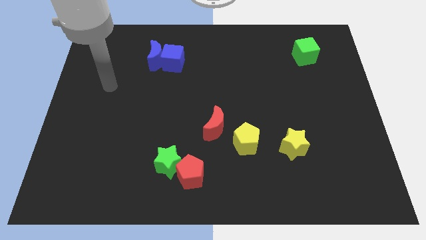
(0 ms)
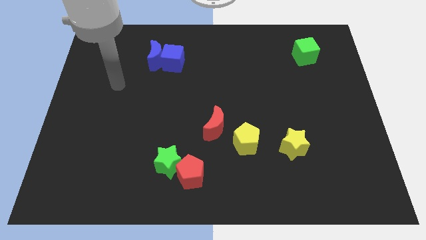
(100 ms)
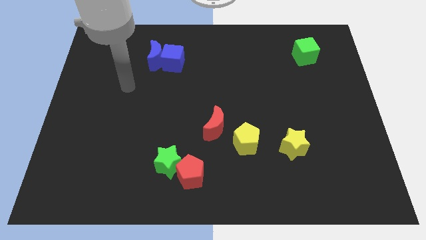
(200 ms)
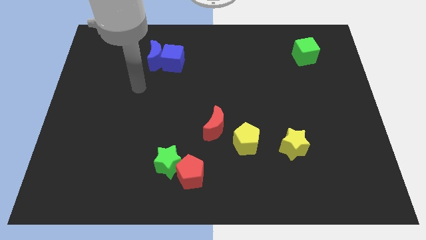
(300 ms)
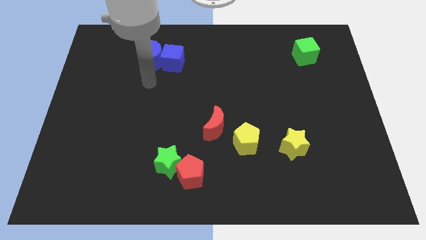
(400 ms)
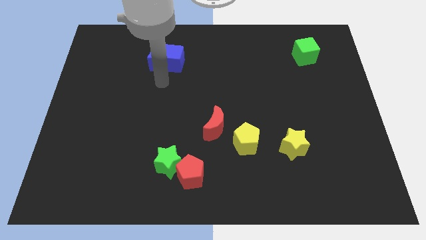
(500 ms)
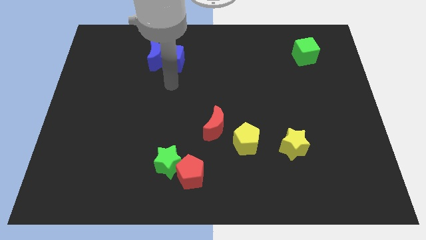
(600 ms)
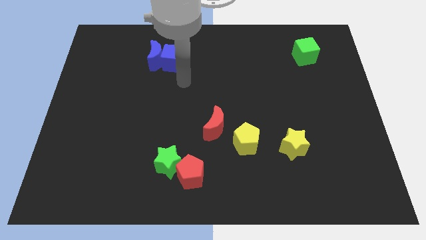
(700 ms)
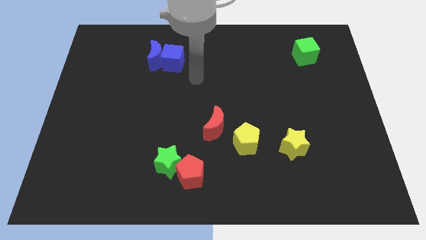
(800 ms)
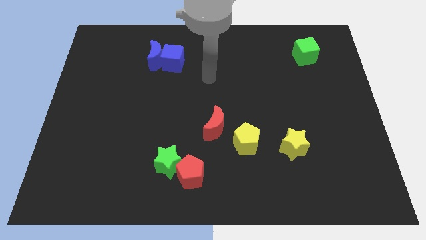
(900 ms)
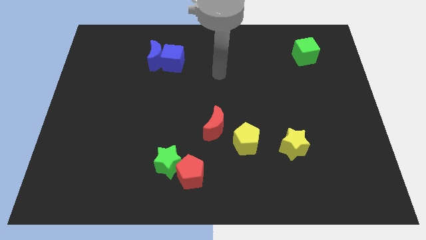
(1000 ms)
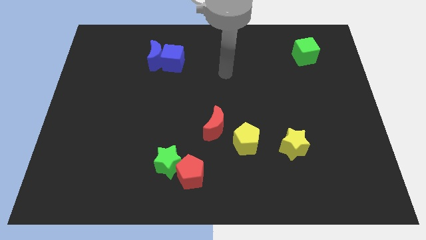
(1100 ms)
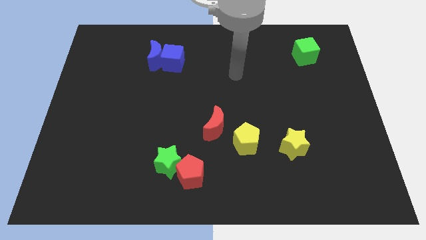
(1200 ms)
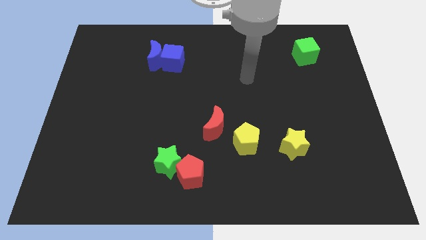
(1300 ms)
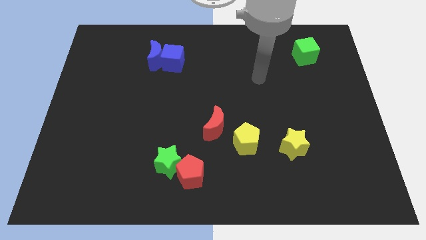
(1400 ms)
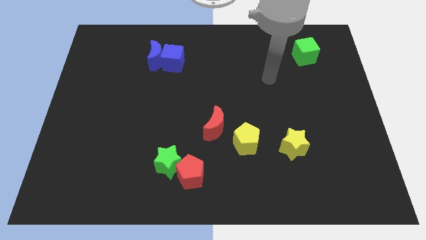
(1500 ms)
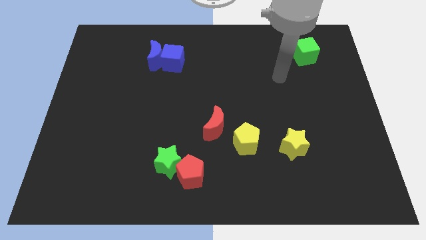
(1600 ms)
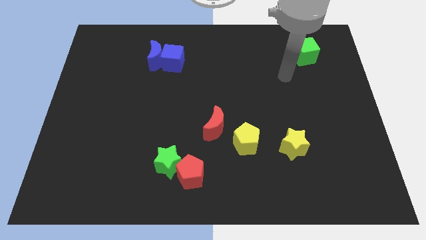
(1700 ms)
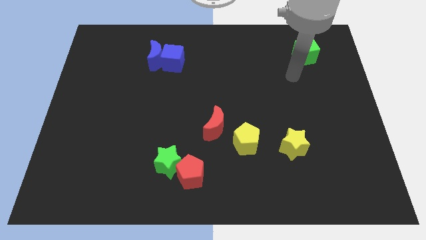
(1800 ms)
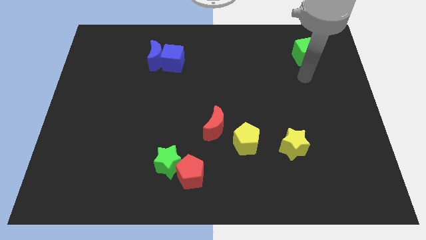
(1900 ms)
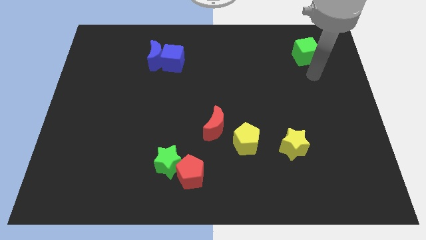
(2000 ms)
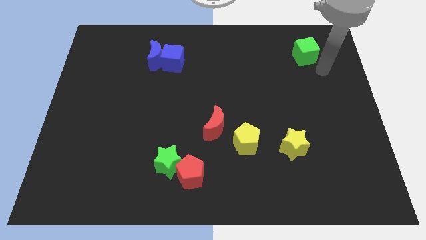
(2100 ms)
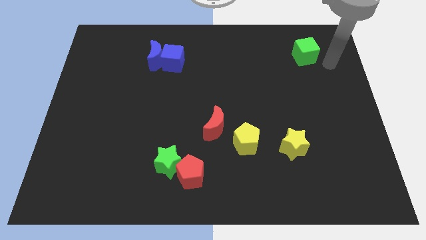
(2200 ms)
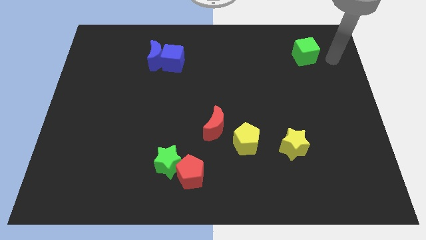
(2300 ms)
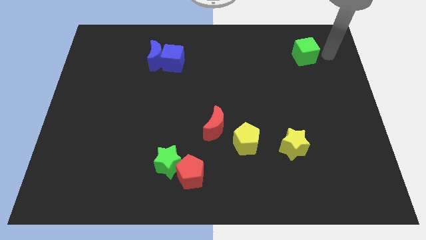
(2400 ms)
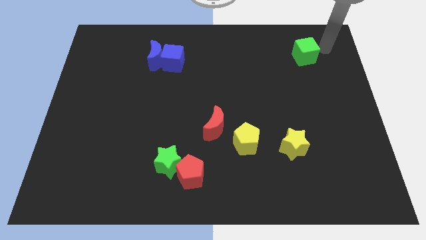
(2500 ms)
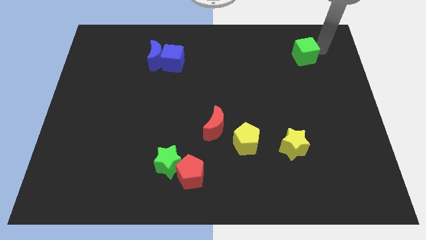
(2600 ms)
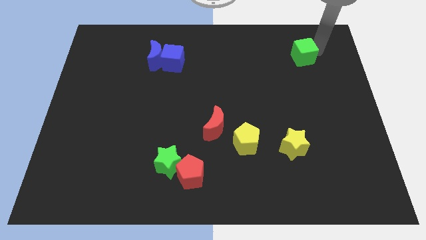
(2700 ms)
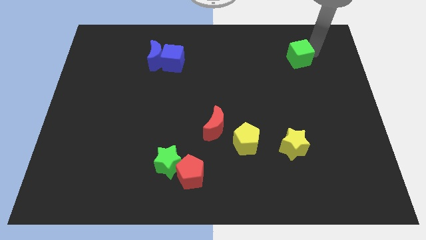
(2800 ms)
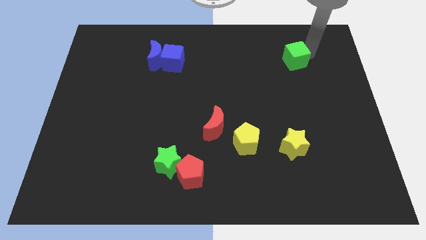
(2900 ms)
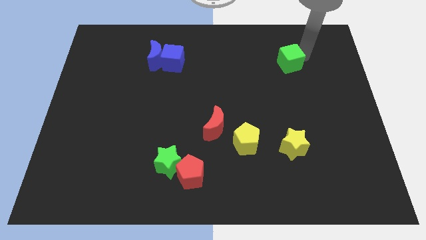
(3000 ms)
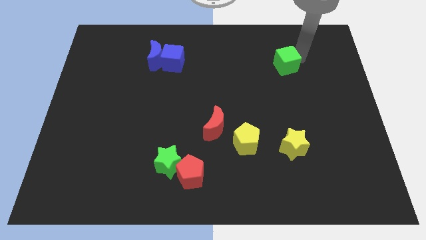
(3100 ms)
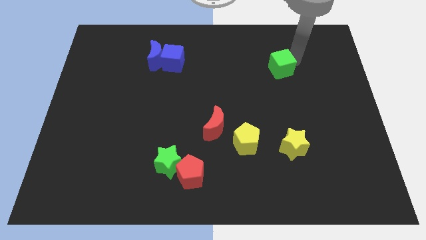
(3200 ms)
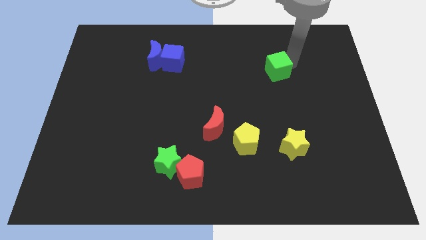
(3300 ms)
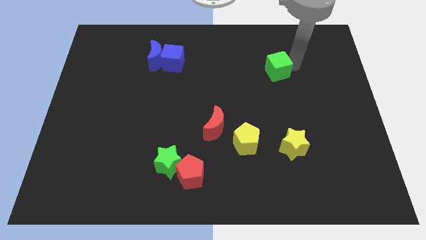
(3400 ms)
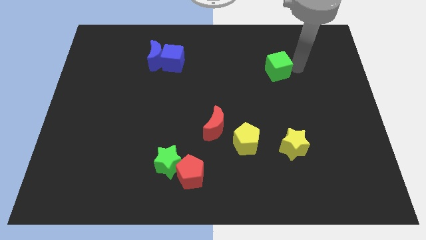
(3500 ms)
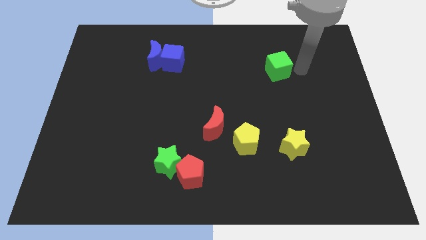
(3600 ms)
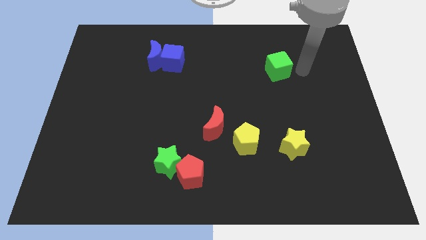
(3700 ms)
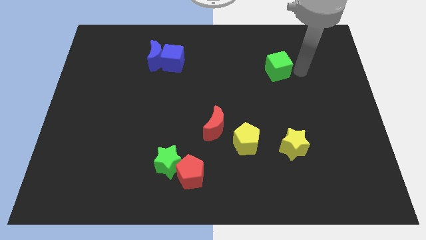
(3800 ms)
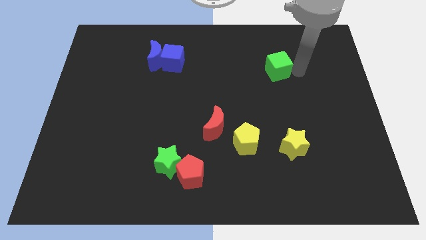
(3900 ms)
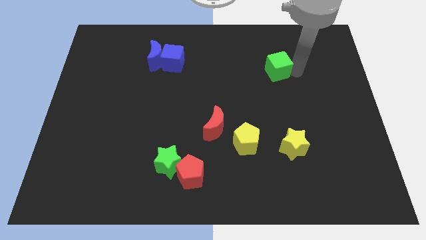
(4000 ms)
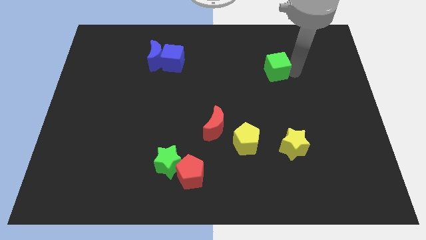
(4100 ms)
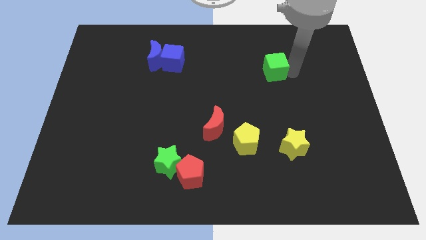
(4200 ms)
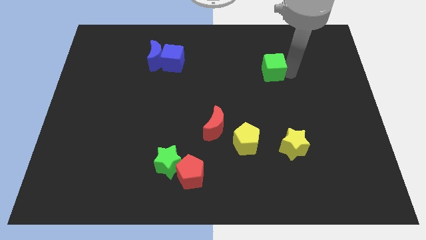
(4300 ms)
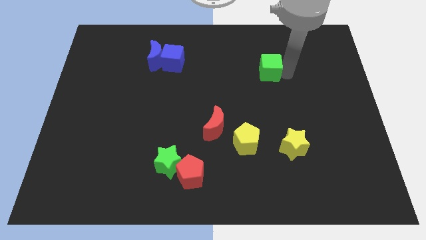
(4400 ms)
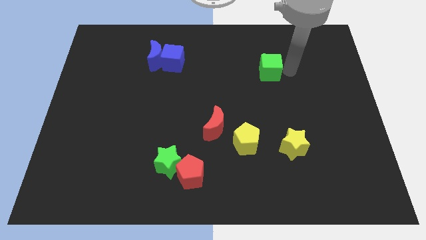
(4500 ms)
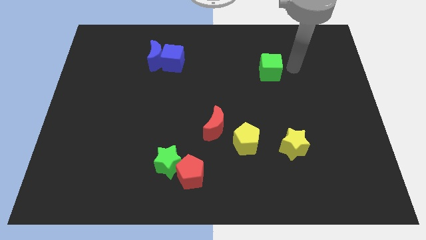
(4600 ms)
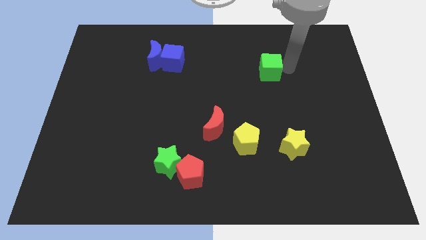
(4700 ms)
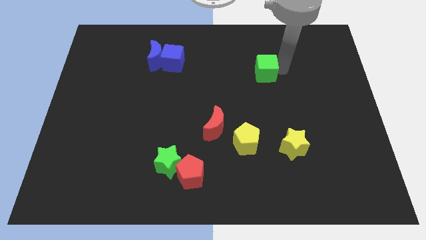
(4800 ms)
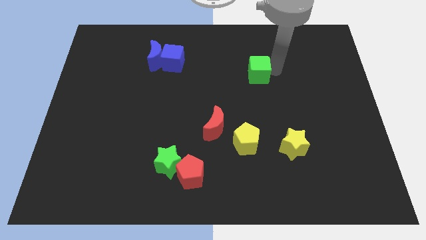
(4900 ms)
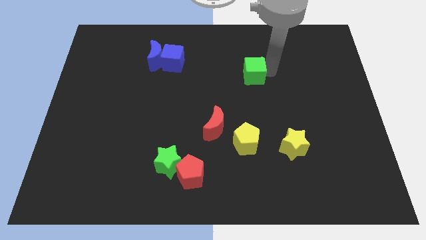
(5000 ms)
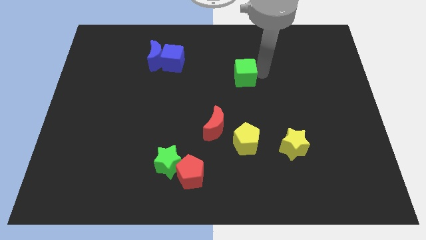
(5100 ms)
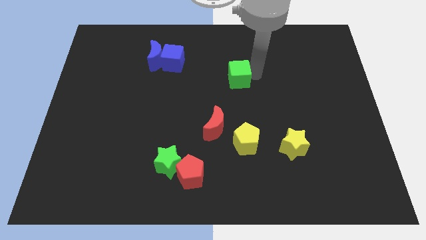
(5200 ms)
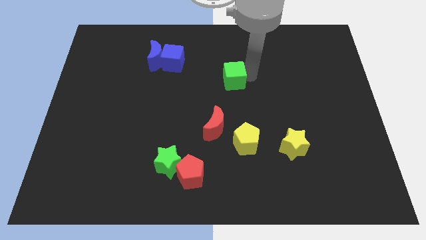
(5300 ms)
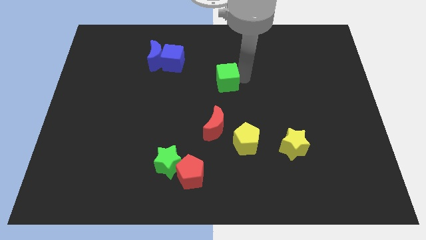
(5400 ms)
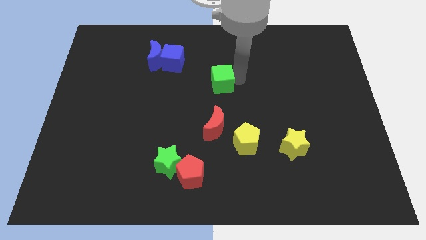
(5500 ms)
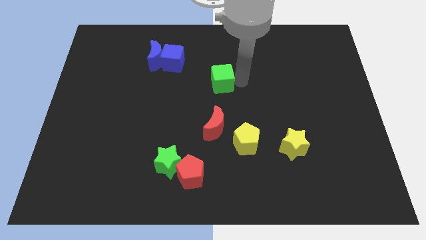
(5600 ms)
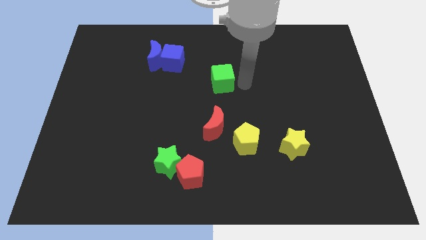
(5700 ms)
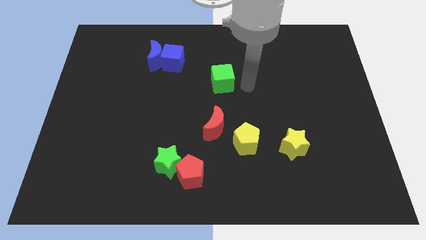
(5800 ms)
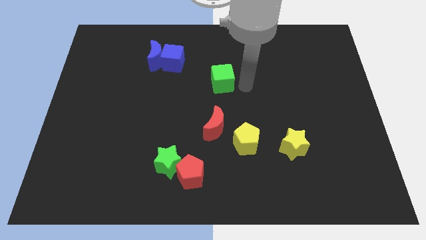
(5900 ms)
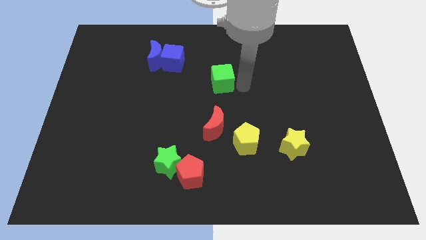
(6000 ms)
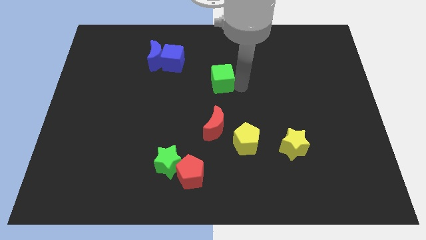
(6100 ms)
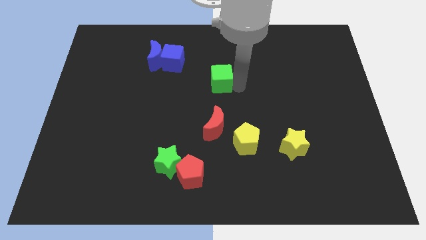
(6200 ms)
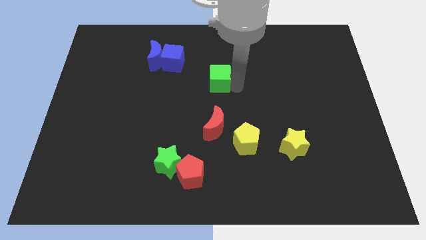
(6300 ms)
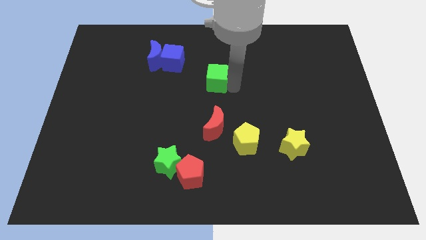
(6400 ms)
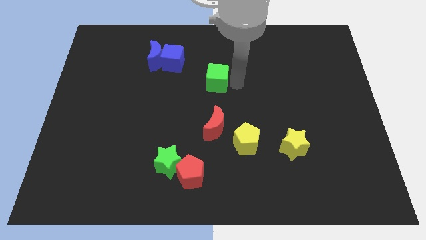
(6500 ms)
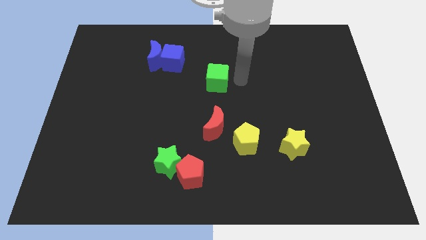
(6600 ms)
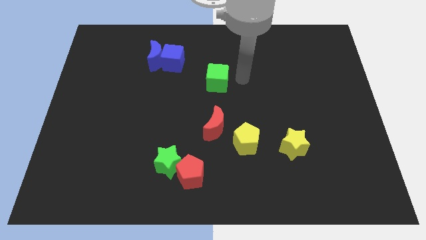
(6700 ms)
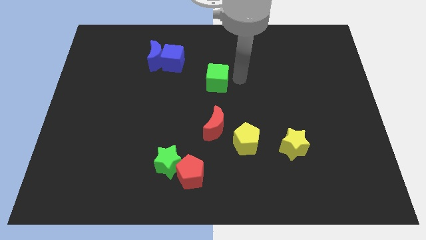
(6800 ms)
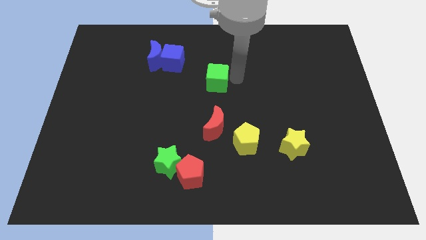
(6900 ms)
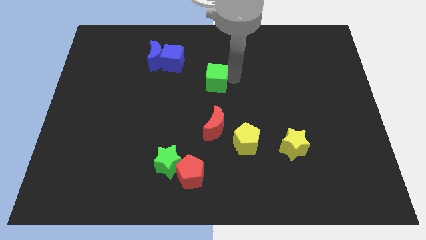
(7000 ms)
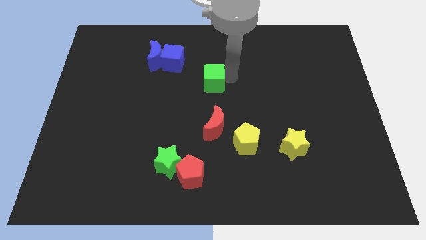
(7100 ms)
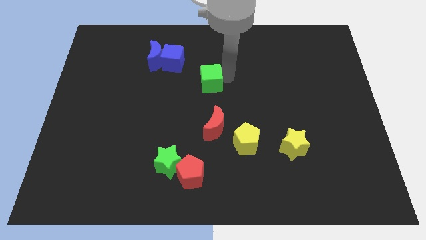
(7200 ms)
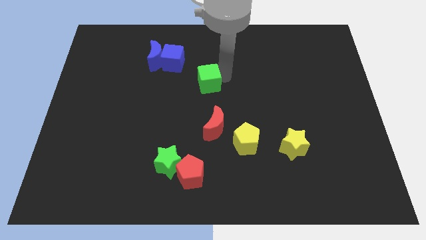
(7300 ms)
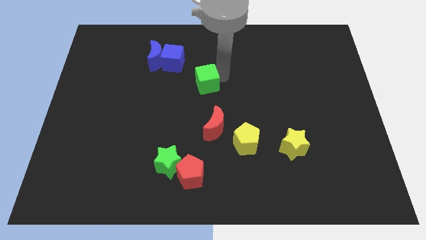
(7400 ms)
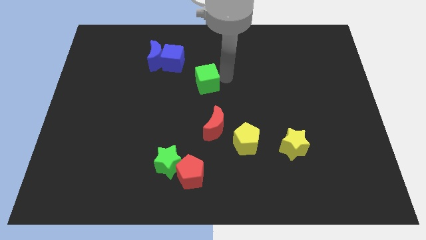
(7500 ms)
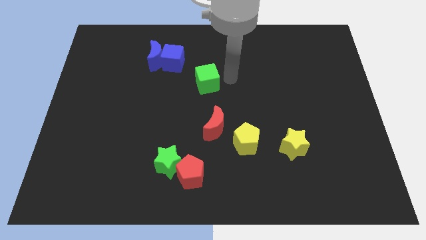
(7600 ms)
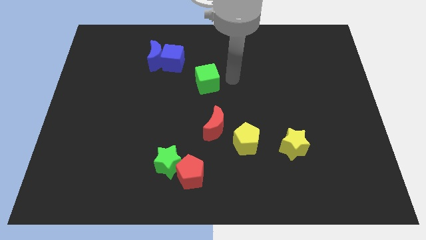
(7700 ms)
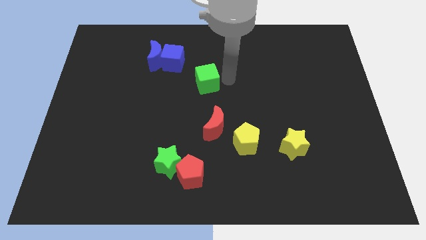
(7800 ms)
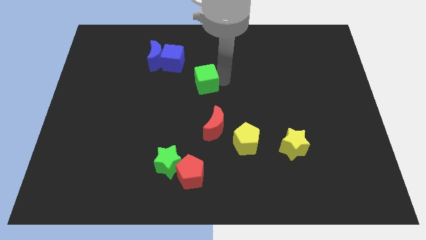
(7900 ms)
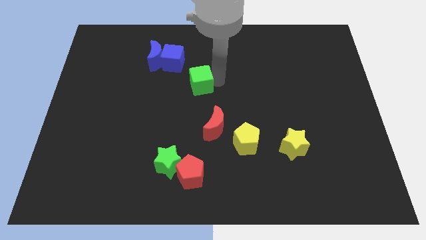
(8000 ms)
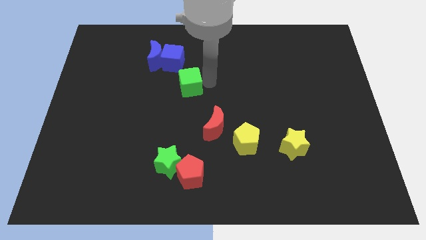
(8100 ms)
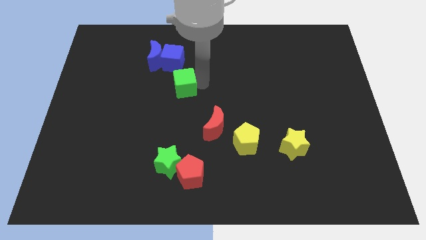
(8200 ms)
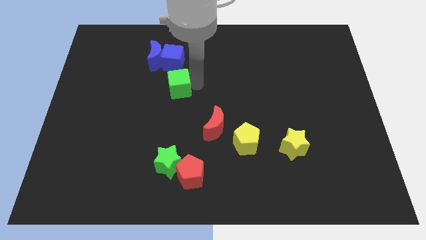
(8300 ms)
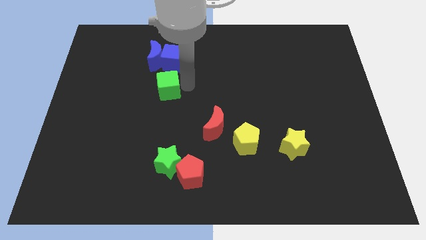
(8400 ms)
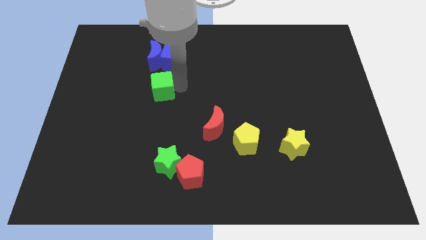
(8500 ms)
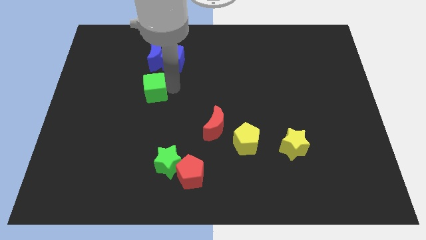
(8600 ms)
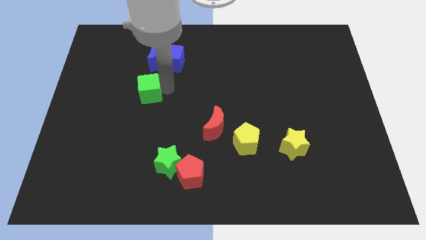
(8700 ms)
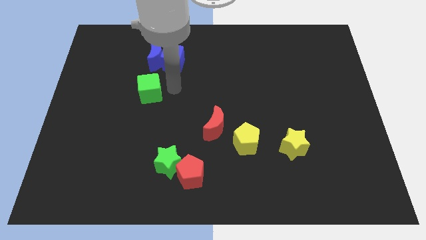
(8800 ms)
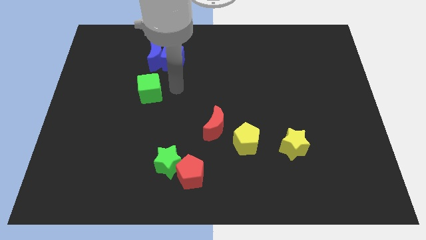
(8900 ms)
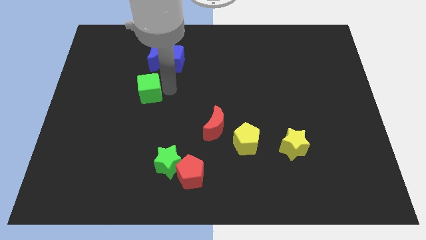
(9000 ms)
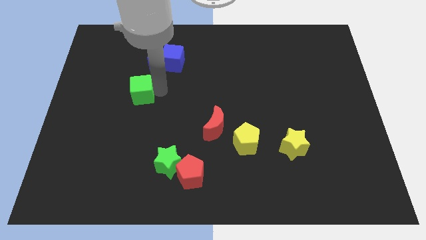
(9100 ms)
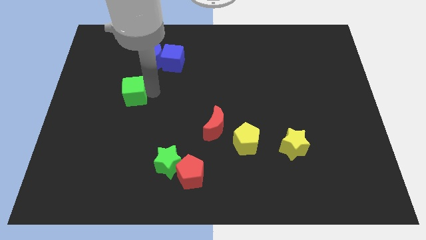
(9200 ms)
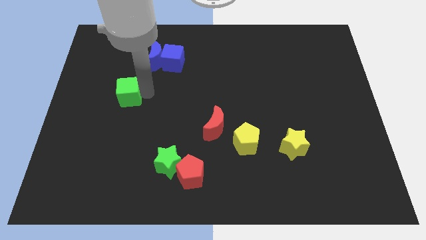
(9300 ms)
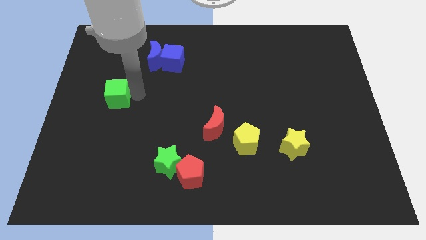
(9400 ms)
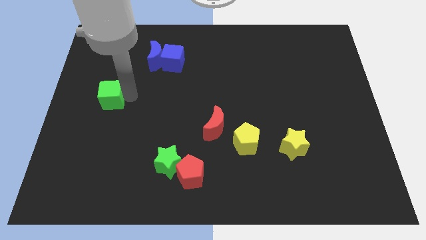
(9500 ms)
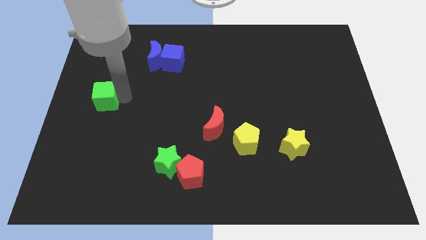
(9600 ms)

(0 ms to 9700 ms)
put the green cube to the left side
